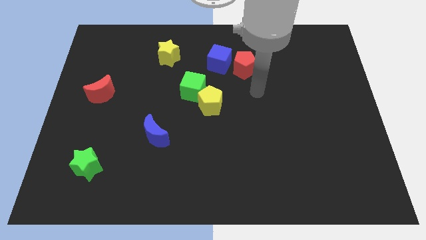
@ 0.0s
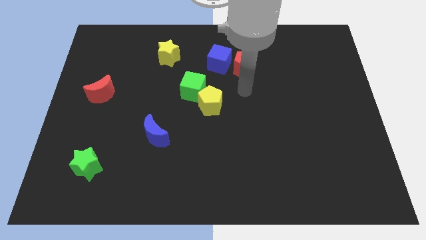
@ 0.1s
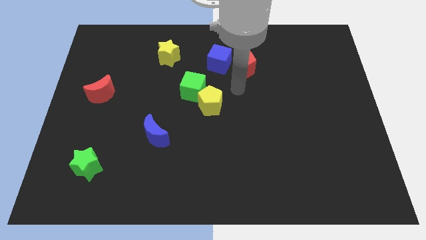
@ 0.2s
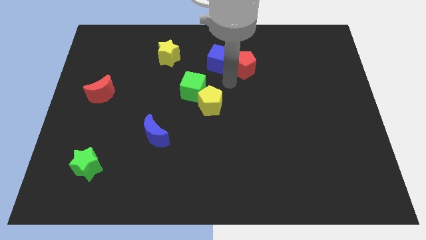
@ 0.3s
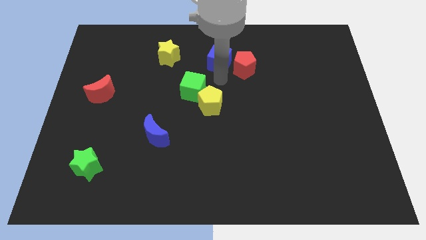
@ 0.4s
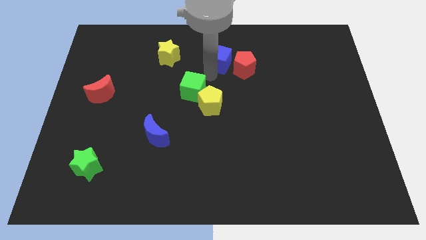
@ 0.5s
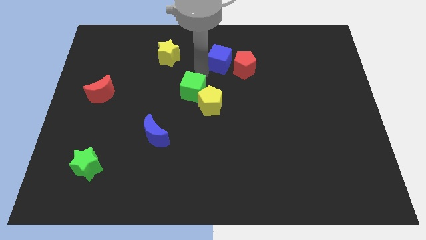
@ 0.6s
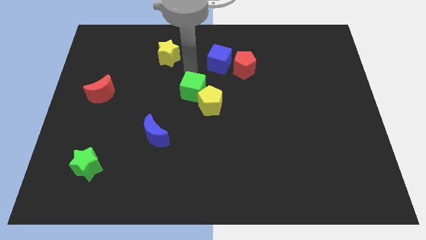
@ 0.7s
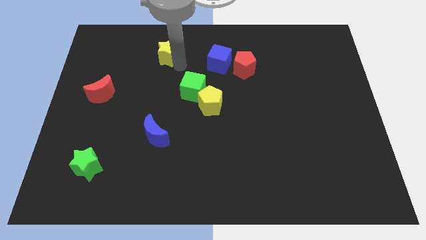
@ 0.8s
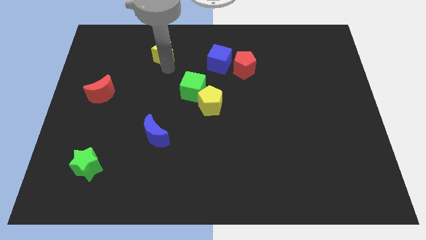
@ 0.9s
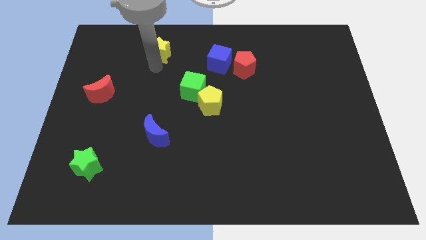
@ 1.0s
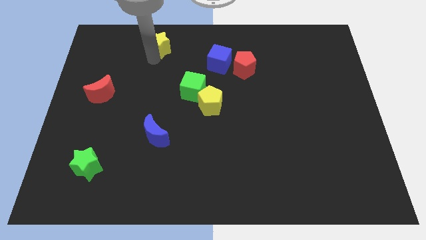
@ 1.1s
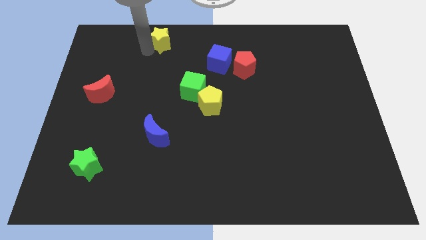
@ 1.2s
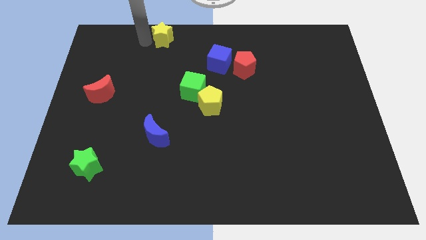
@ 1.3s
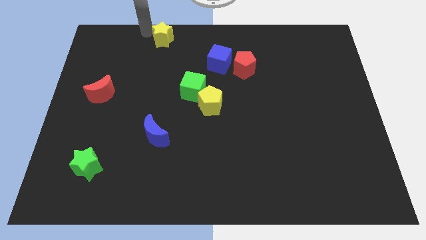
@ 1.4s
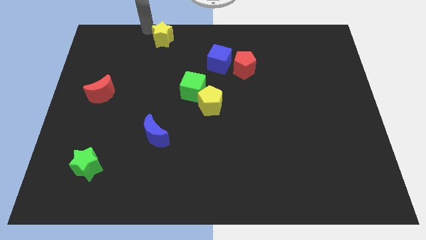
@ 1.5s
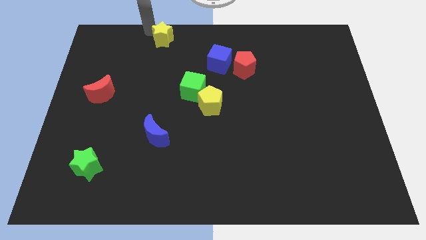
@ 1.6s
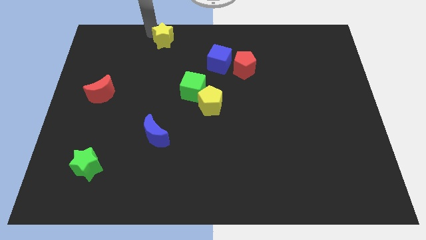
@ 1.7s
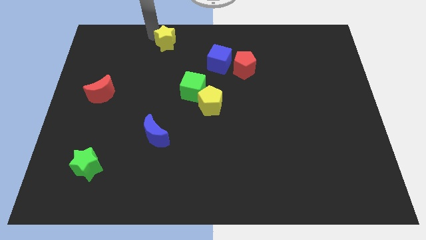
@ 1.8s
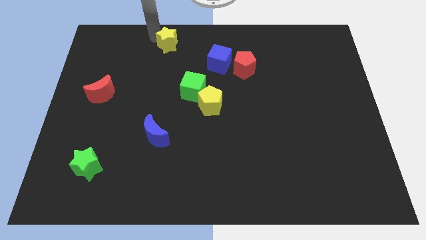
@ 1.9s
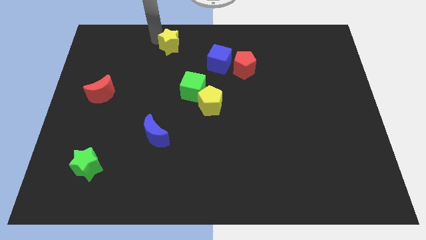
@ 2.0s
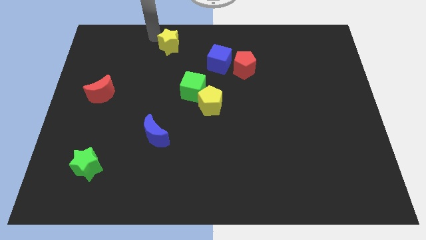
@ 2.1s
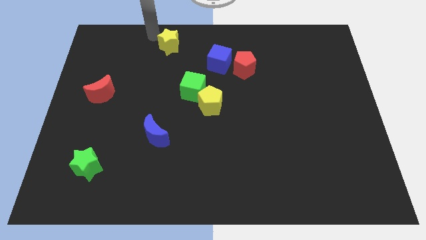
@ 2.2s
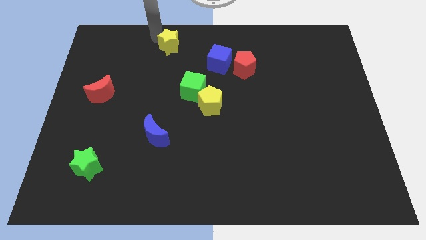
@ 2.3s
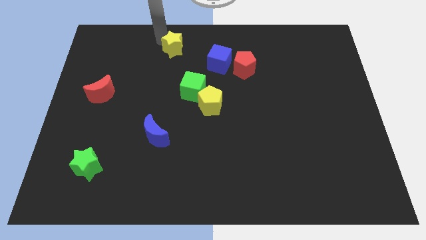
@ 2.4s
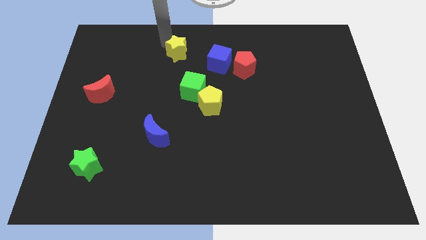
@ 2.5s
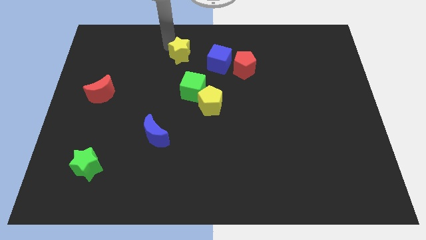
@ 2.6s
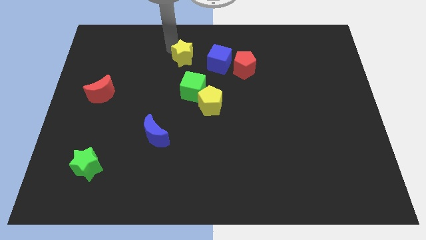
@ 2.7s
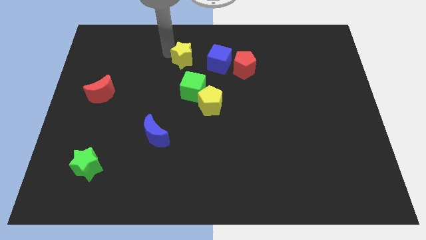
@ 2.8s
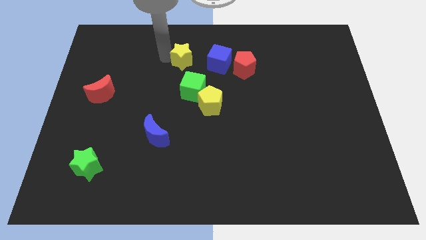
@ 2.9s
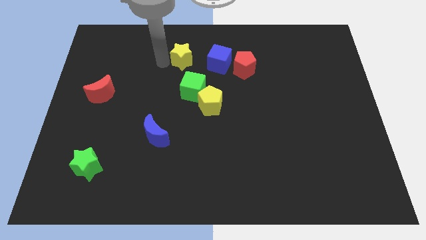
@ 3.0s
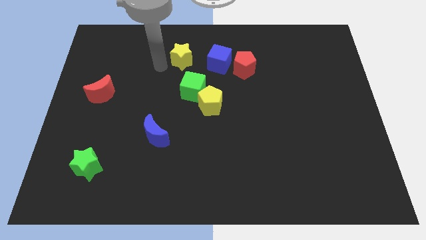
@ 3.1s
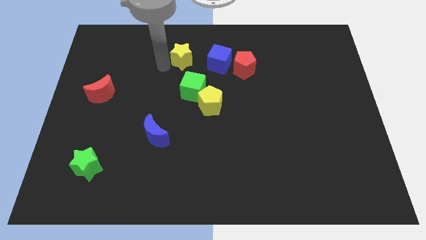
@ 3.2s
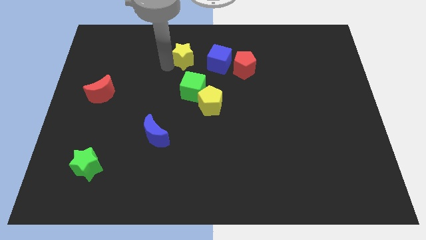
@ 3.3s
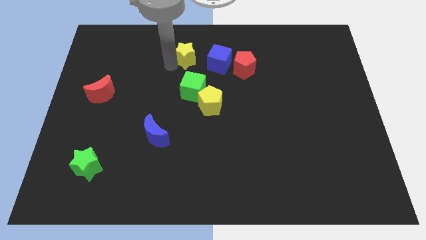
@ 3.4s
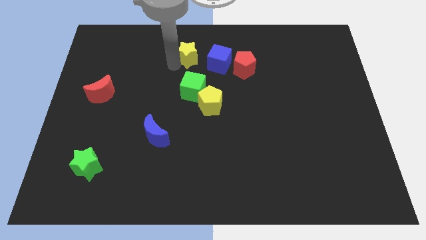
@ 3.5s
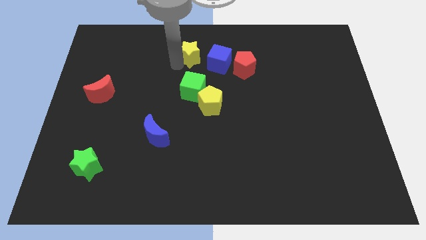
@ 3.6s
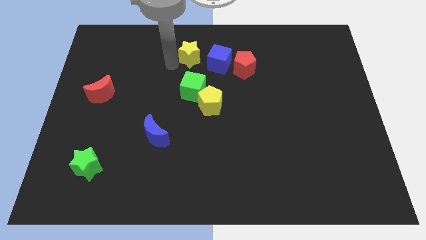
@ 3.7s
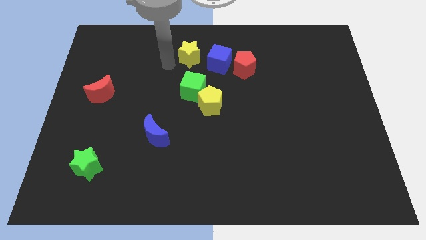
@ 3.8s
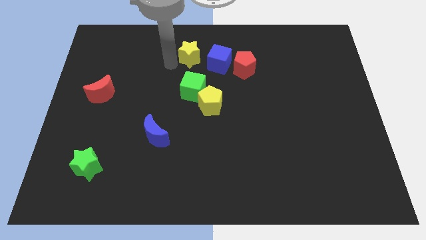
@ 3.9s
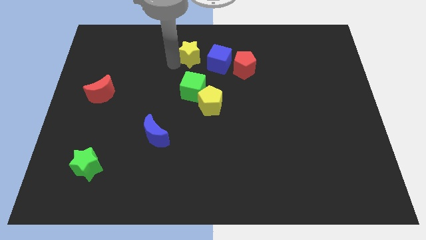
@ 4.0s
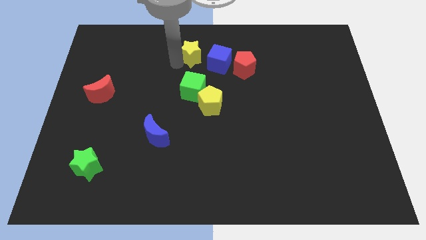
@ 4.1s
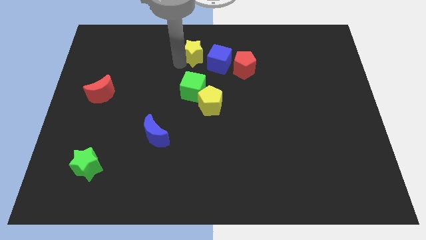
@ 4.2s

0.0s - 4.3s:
slightly move the yellow star to the right

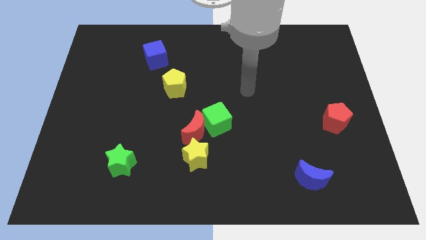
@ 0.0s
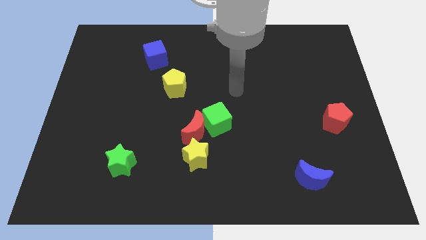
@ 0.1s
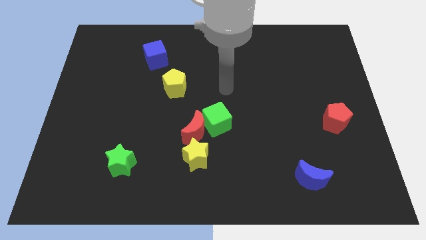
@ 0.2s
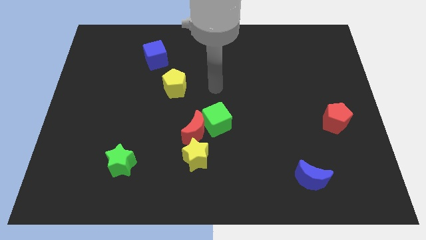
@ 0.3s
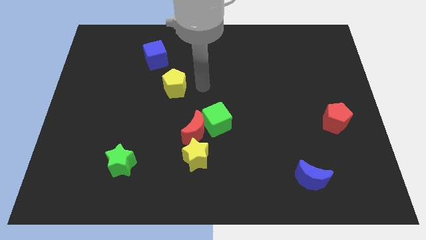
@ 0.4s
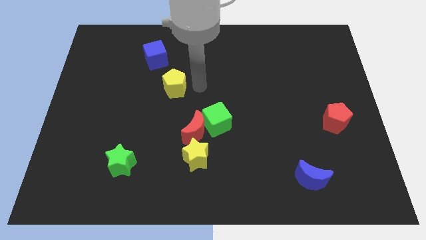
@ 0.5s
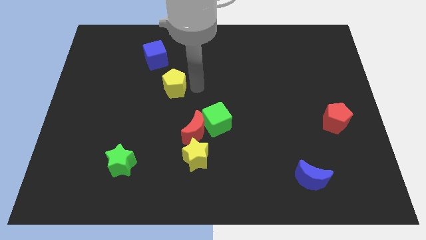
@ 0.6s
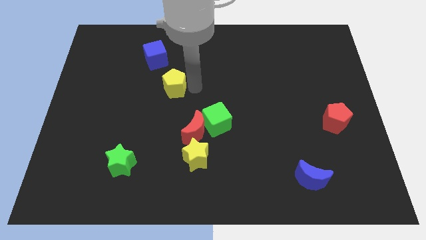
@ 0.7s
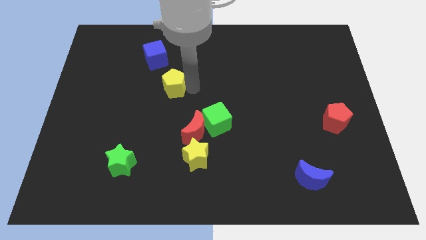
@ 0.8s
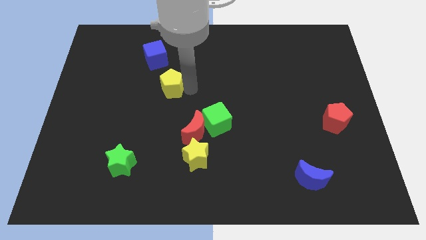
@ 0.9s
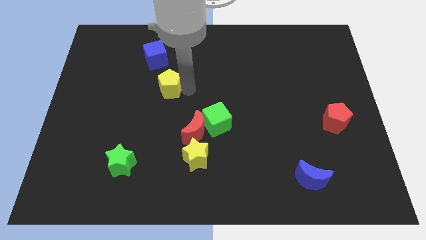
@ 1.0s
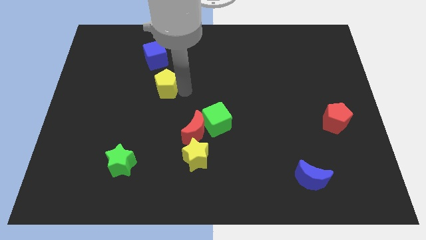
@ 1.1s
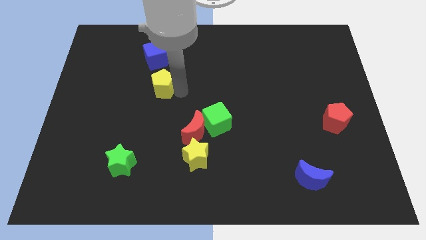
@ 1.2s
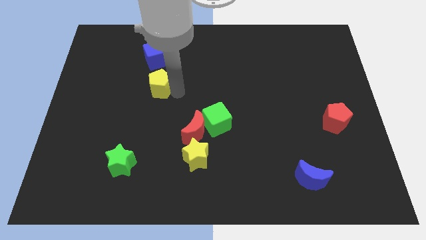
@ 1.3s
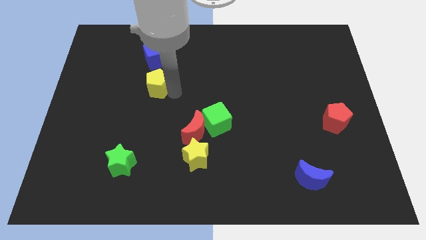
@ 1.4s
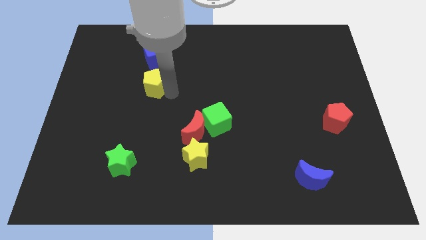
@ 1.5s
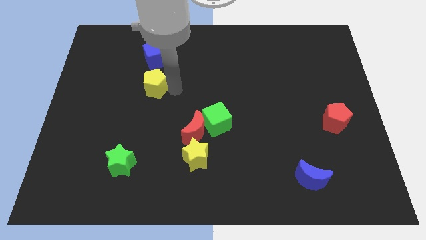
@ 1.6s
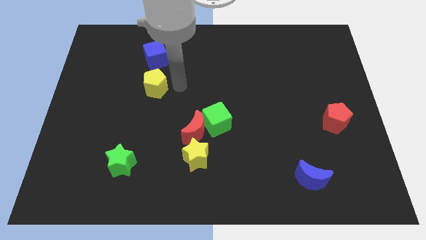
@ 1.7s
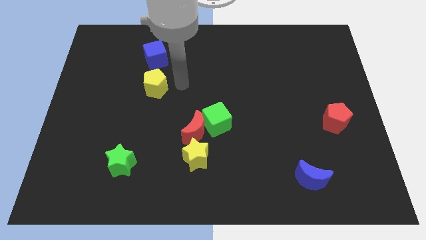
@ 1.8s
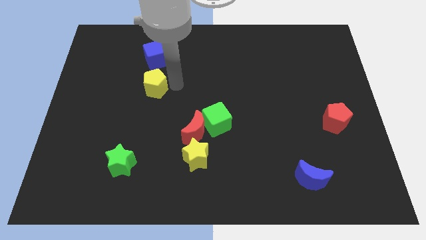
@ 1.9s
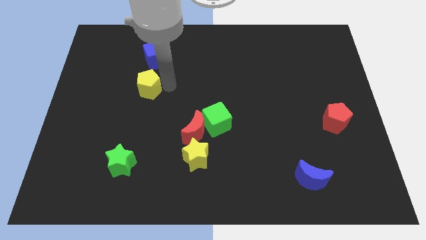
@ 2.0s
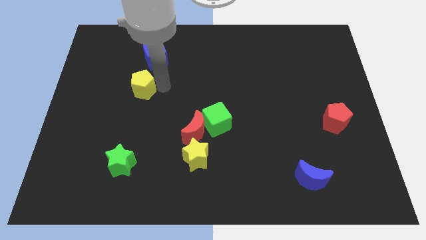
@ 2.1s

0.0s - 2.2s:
push the yellow pentagon left slightly

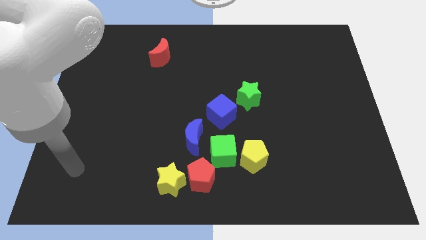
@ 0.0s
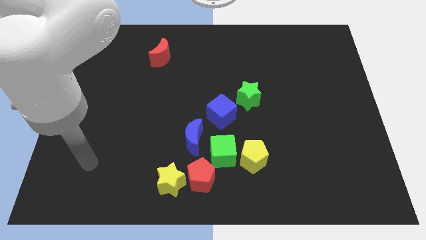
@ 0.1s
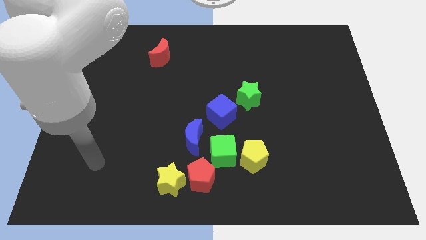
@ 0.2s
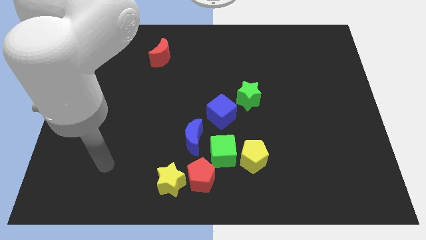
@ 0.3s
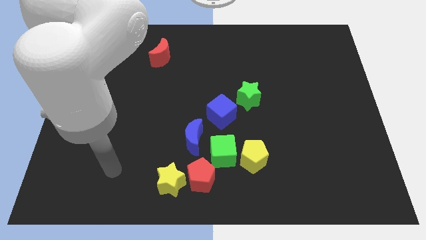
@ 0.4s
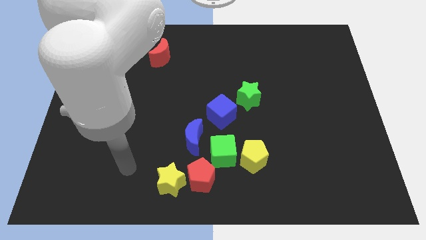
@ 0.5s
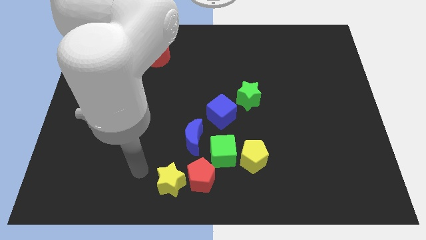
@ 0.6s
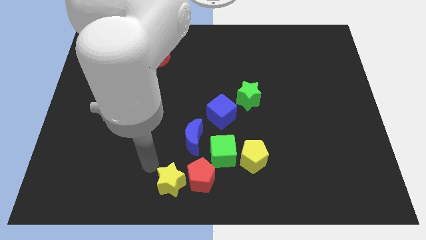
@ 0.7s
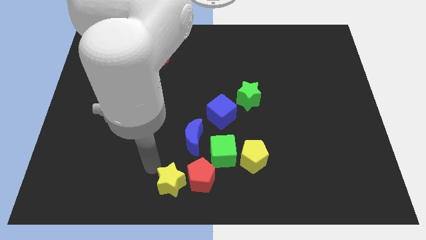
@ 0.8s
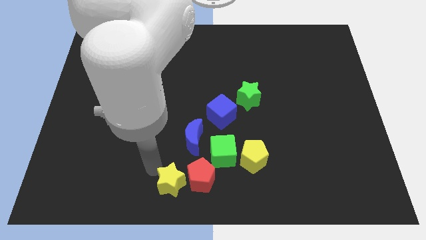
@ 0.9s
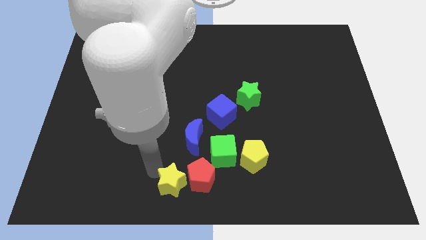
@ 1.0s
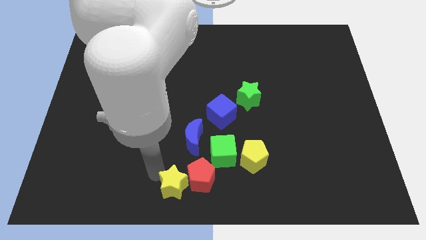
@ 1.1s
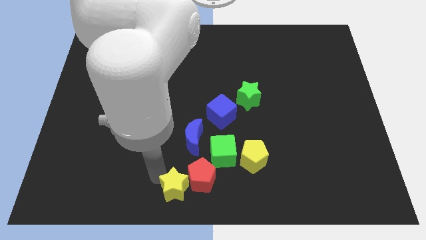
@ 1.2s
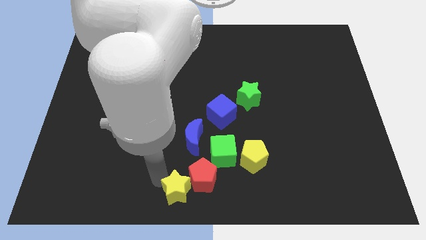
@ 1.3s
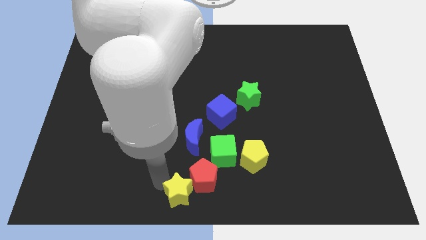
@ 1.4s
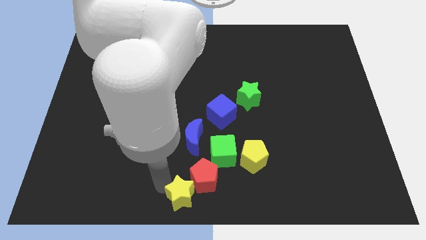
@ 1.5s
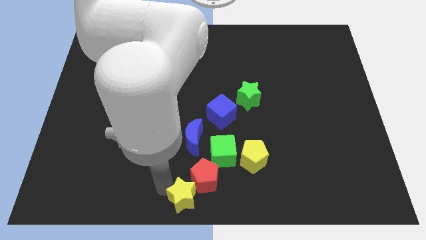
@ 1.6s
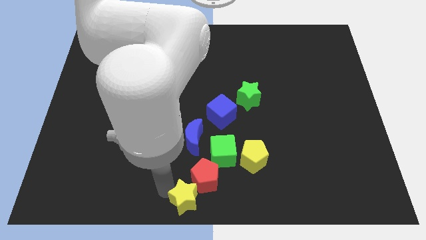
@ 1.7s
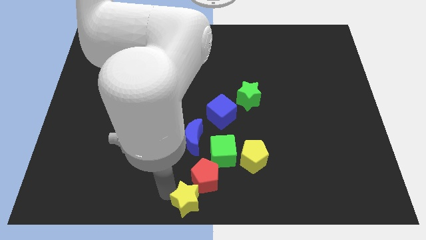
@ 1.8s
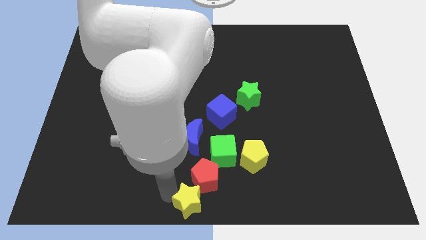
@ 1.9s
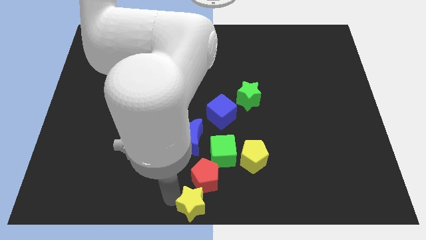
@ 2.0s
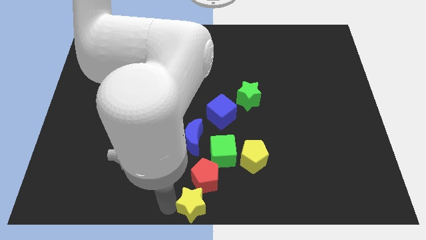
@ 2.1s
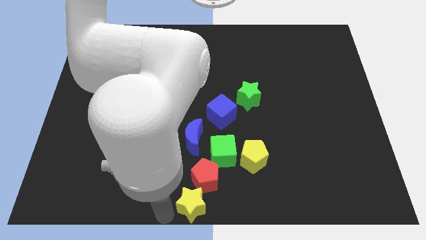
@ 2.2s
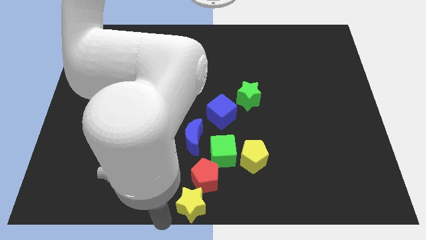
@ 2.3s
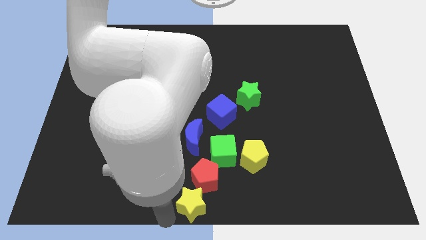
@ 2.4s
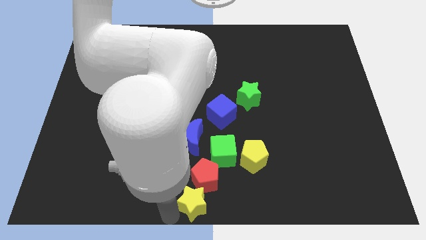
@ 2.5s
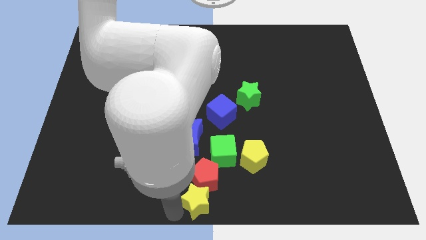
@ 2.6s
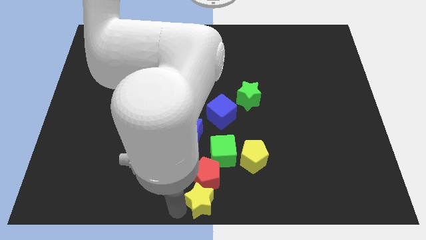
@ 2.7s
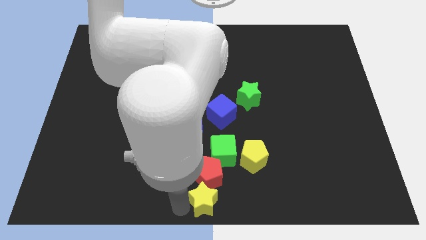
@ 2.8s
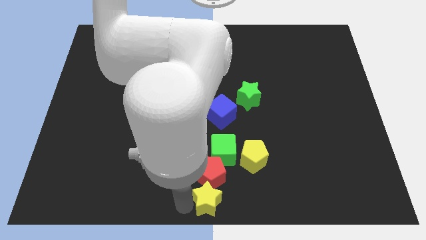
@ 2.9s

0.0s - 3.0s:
slide the yellow star a little right
